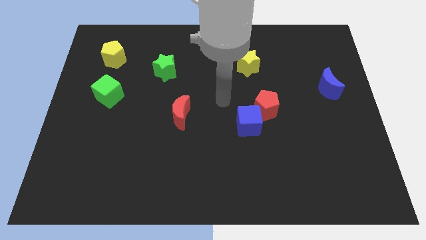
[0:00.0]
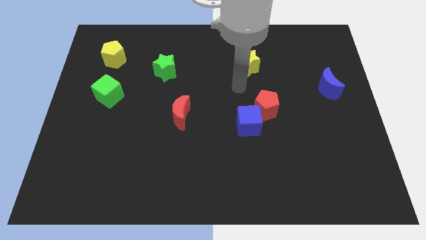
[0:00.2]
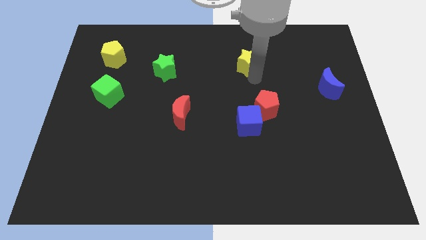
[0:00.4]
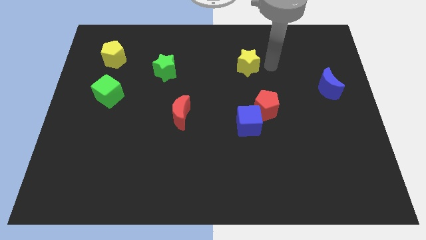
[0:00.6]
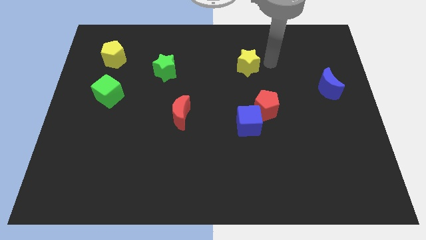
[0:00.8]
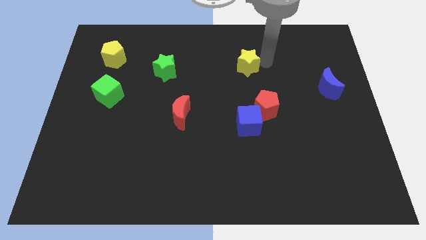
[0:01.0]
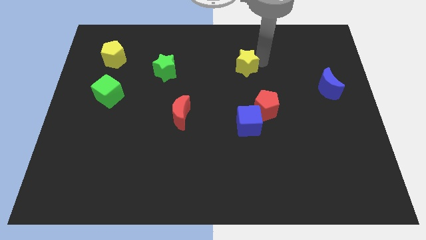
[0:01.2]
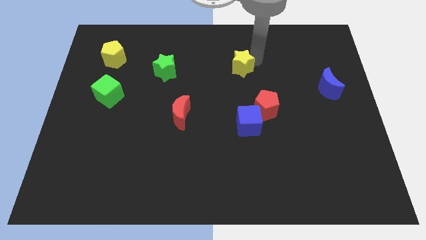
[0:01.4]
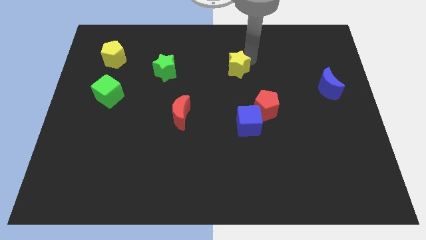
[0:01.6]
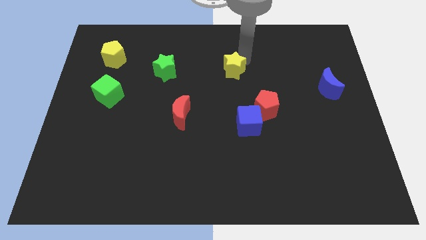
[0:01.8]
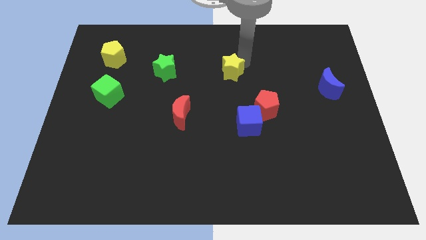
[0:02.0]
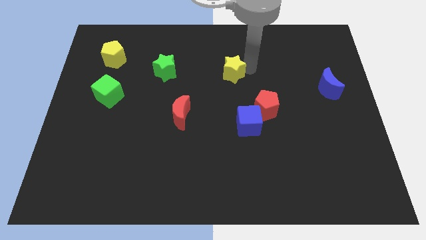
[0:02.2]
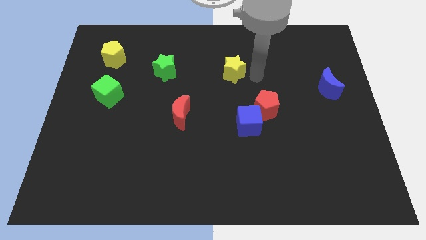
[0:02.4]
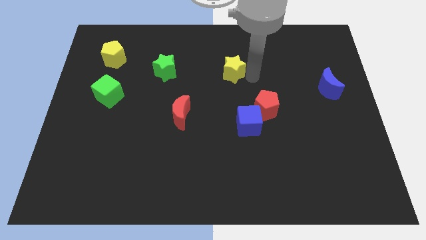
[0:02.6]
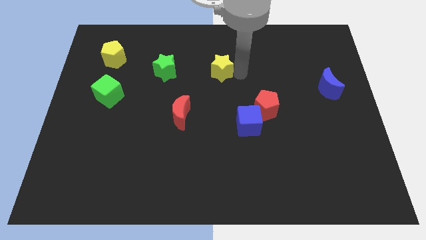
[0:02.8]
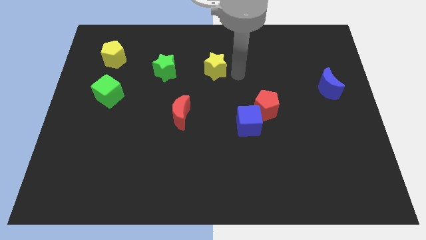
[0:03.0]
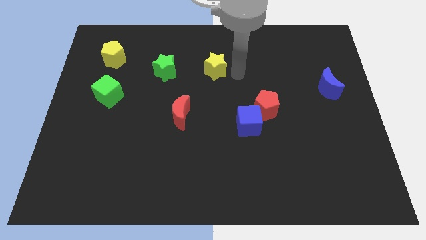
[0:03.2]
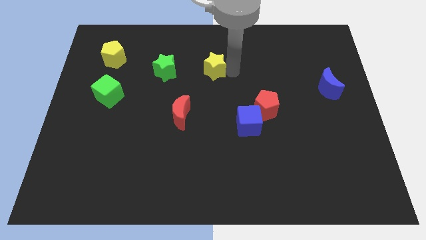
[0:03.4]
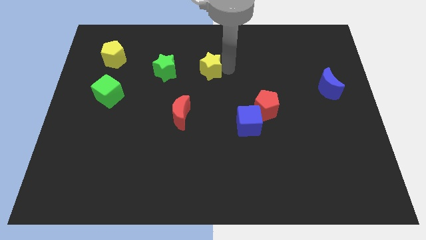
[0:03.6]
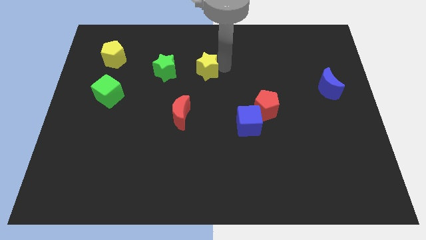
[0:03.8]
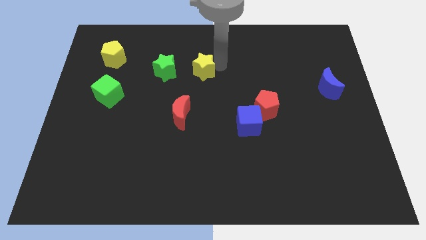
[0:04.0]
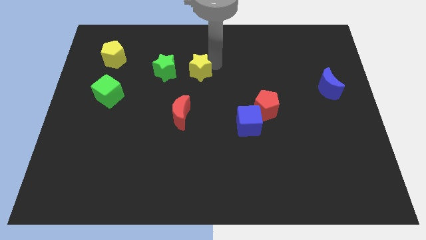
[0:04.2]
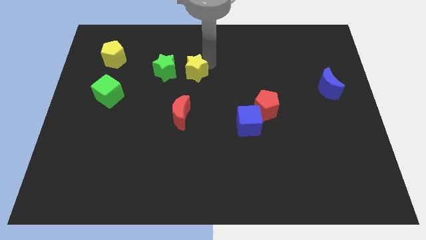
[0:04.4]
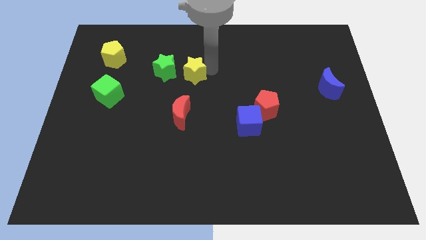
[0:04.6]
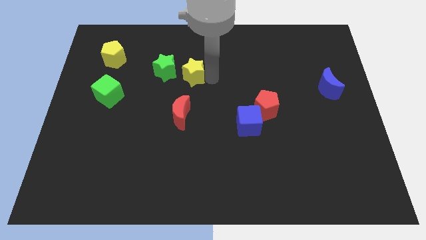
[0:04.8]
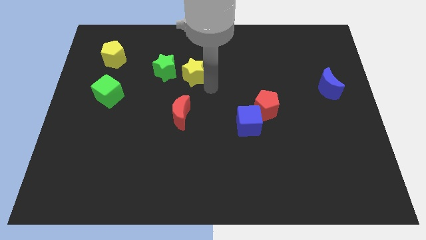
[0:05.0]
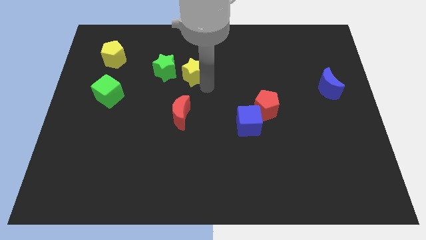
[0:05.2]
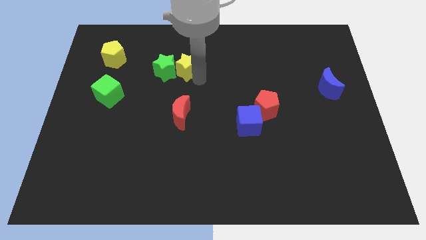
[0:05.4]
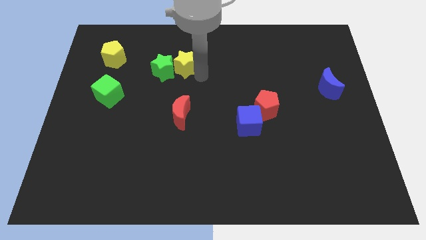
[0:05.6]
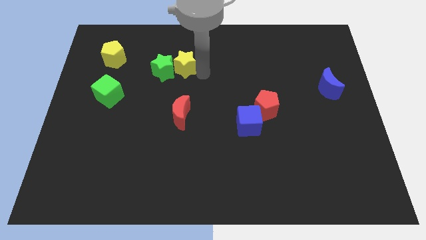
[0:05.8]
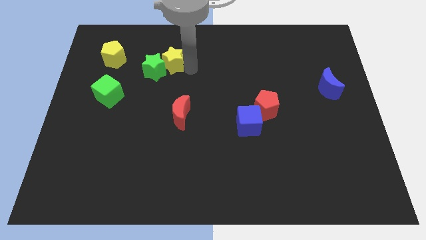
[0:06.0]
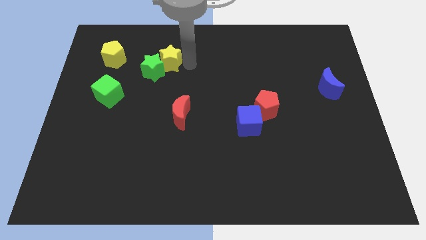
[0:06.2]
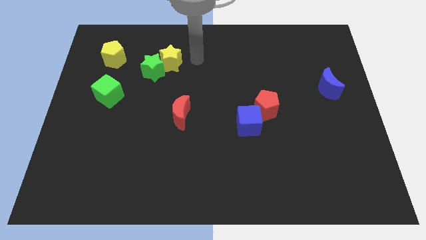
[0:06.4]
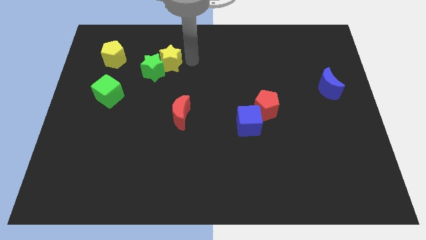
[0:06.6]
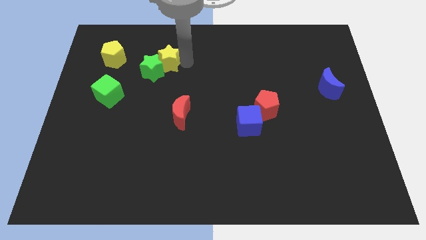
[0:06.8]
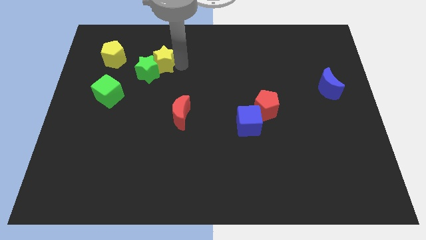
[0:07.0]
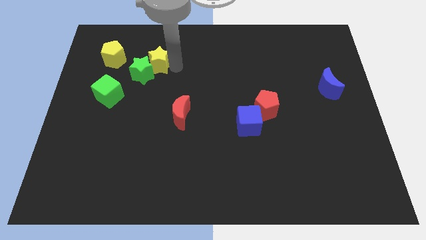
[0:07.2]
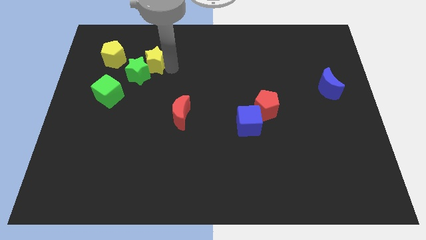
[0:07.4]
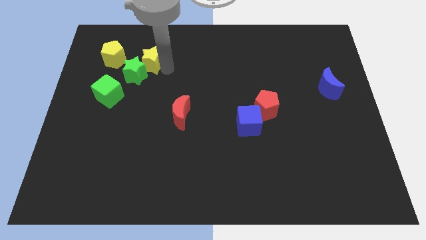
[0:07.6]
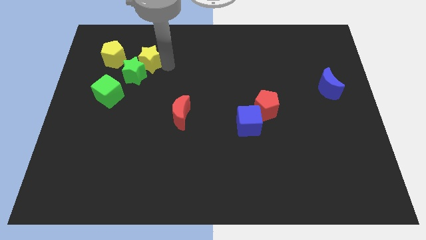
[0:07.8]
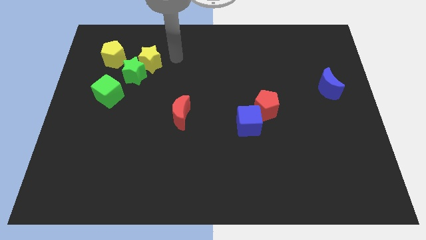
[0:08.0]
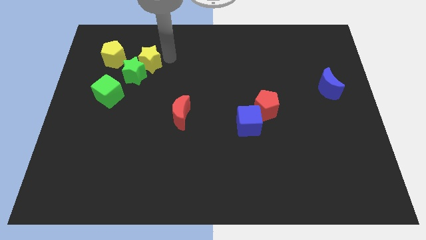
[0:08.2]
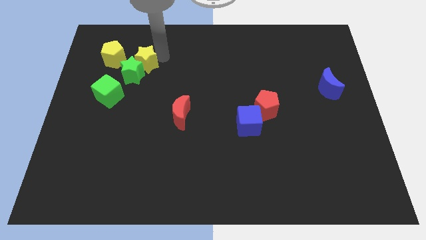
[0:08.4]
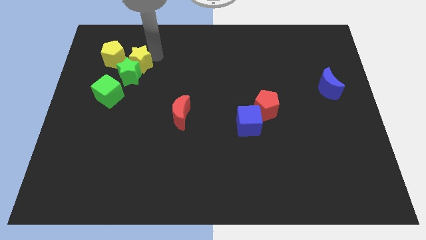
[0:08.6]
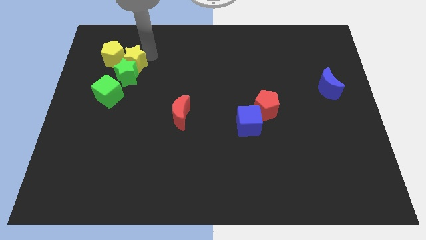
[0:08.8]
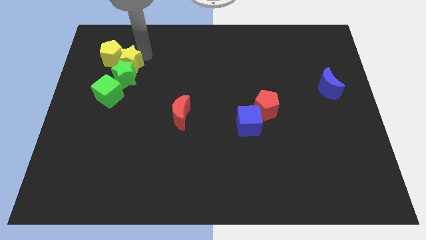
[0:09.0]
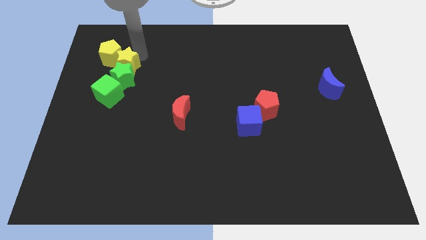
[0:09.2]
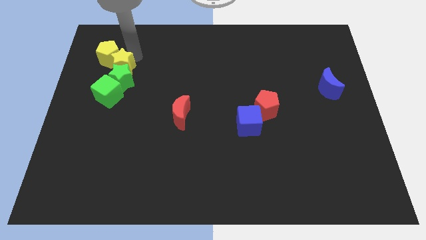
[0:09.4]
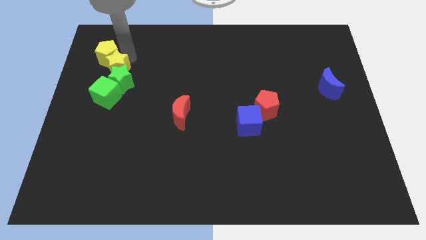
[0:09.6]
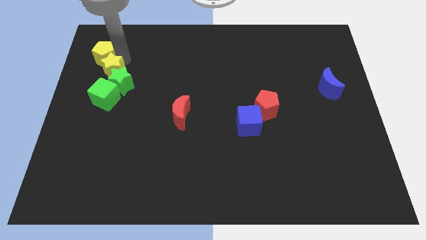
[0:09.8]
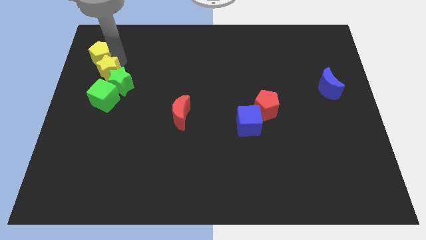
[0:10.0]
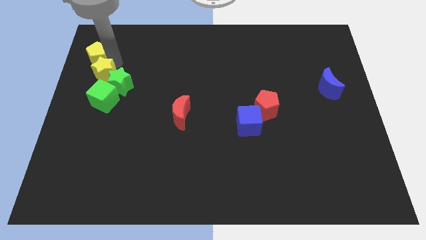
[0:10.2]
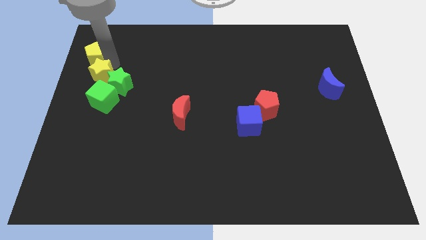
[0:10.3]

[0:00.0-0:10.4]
push the yellow star to the left side

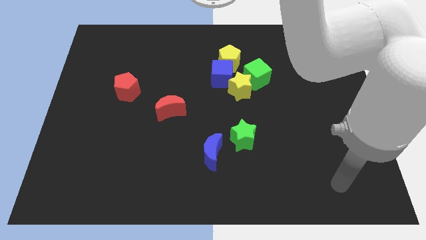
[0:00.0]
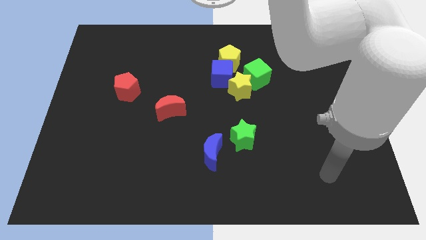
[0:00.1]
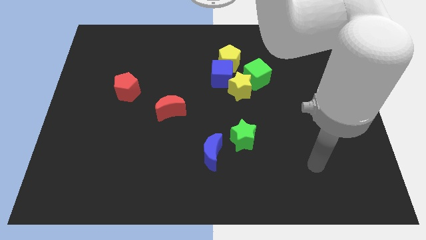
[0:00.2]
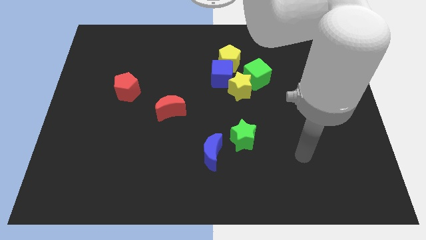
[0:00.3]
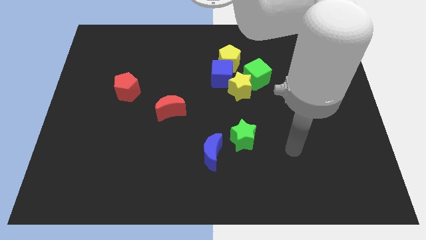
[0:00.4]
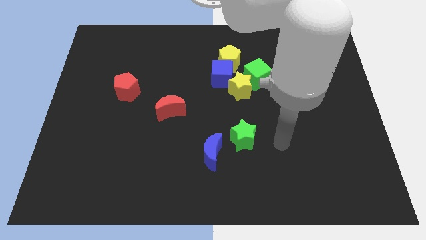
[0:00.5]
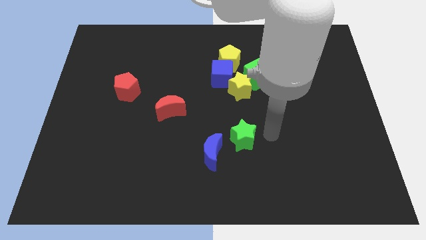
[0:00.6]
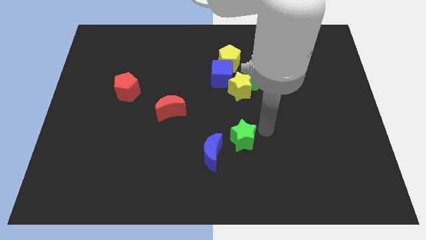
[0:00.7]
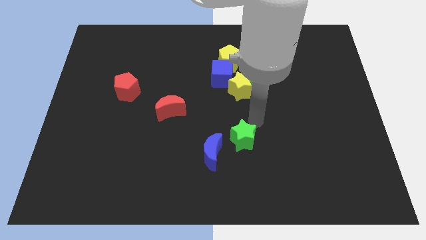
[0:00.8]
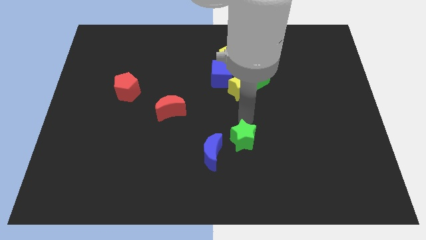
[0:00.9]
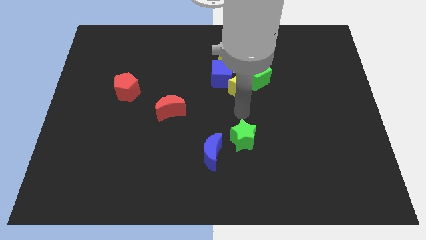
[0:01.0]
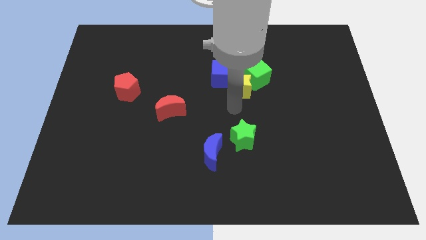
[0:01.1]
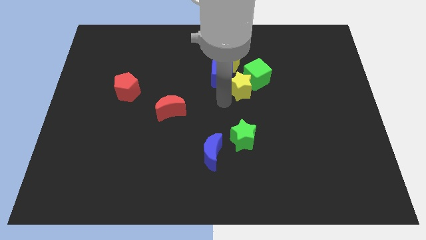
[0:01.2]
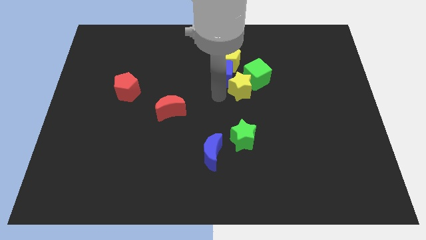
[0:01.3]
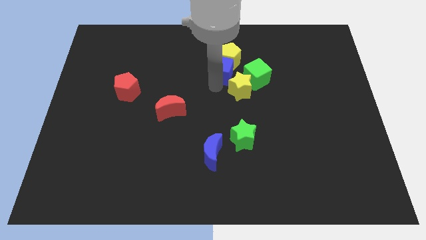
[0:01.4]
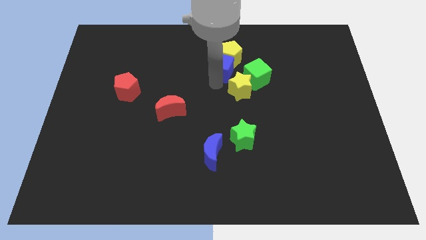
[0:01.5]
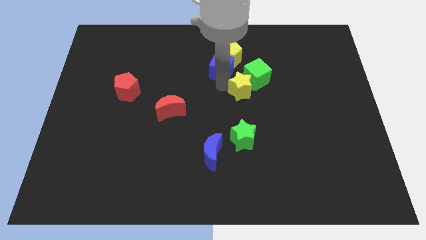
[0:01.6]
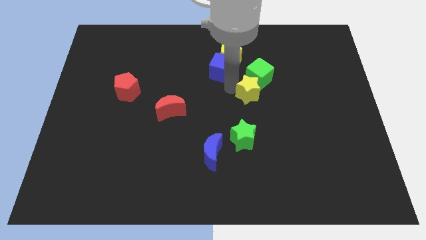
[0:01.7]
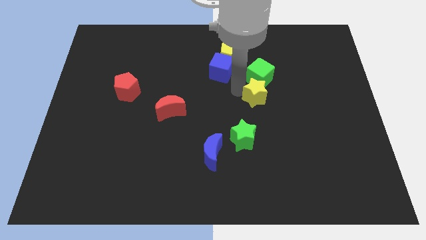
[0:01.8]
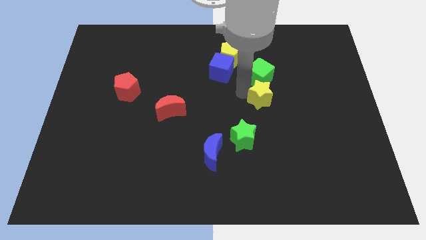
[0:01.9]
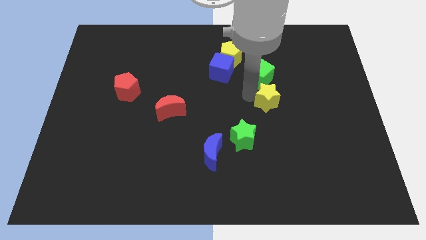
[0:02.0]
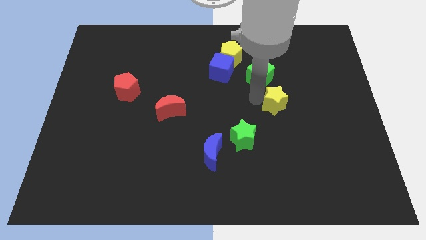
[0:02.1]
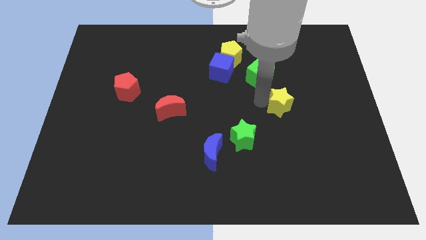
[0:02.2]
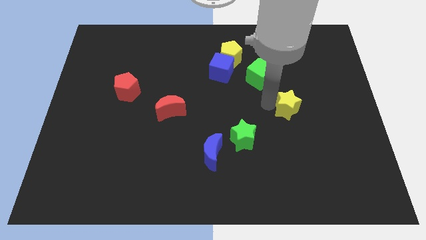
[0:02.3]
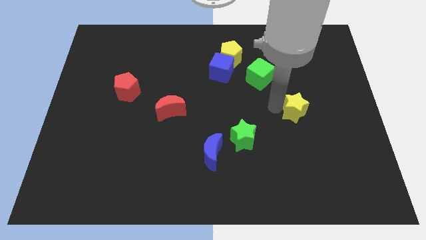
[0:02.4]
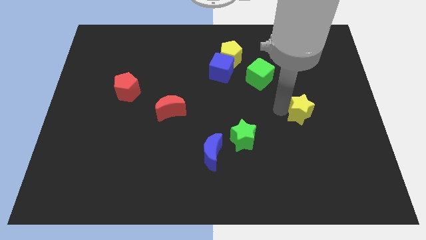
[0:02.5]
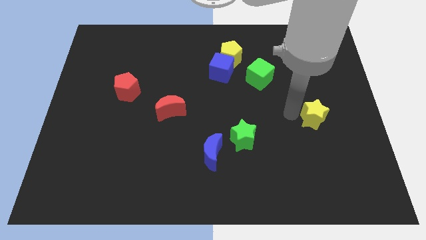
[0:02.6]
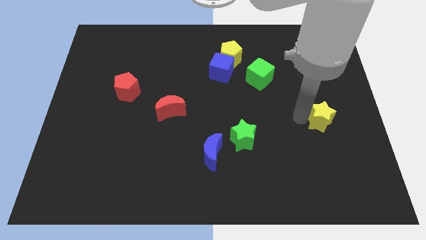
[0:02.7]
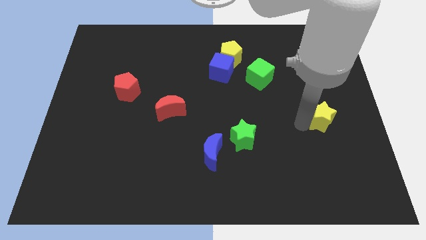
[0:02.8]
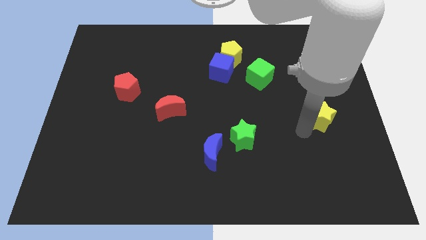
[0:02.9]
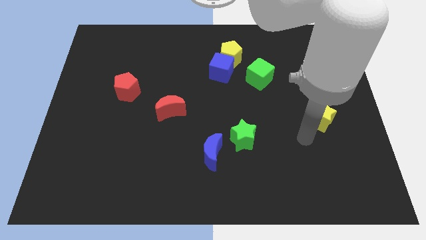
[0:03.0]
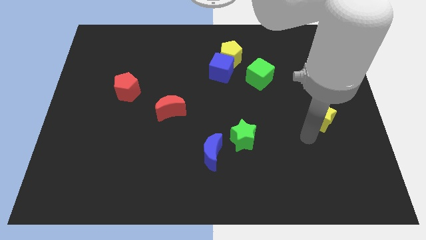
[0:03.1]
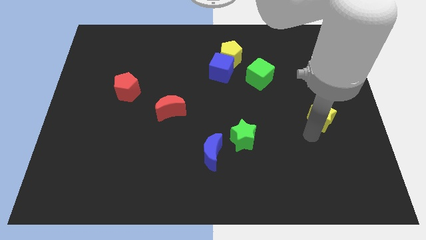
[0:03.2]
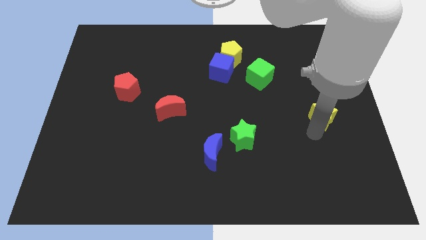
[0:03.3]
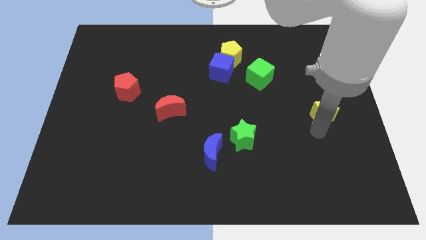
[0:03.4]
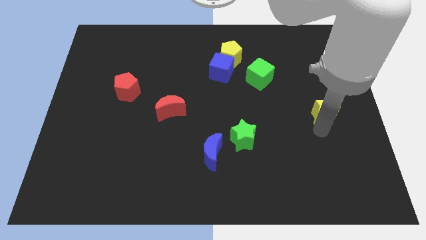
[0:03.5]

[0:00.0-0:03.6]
push the yellow star to the right side of the board
